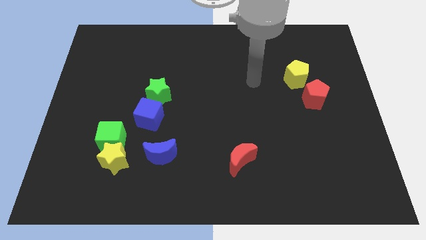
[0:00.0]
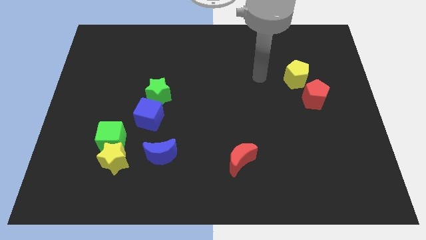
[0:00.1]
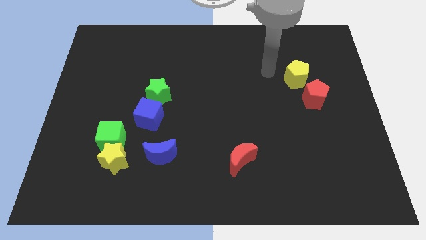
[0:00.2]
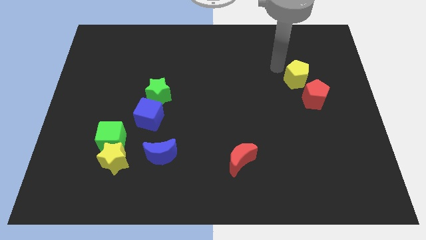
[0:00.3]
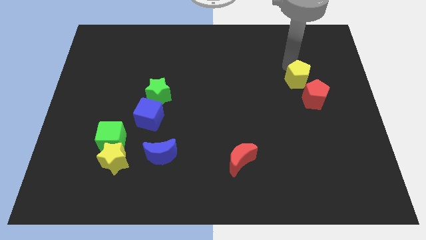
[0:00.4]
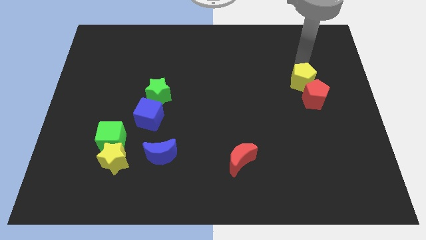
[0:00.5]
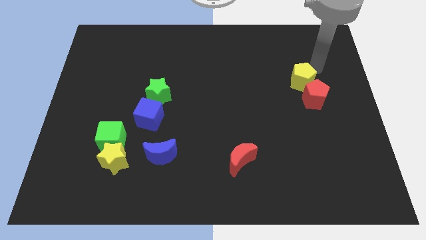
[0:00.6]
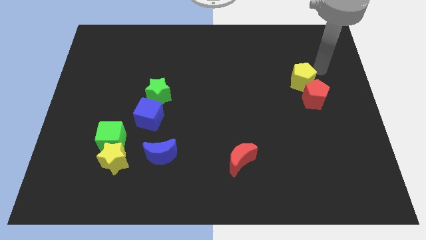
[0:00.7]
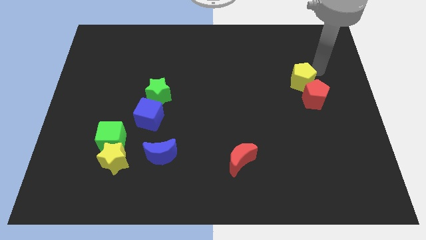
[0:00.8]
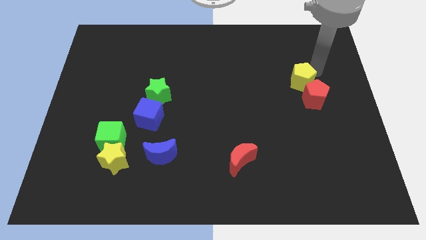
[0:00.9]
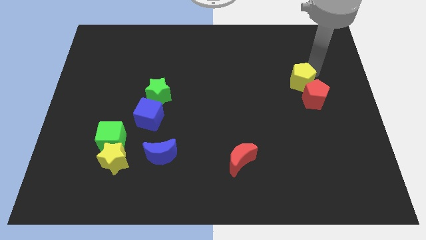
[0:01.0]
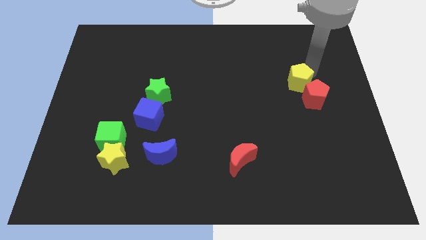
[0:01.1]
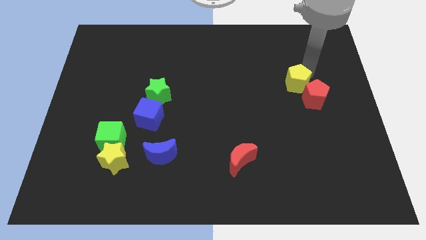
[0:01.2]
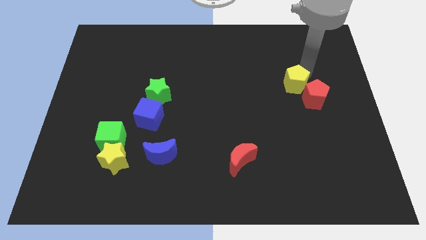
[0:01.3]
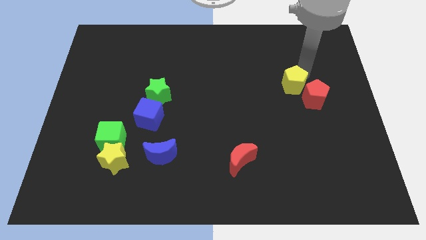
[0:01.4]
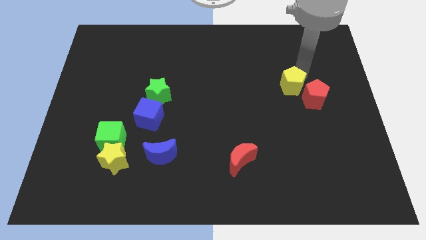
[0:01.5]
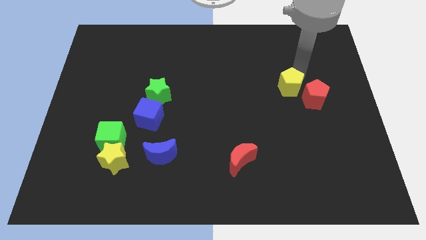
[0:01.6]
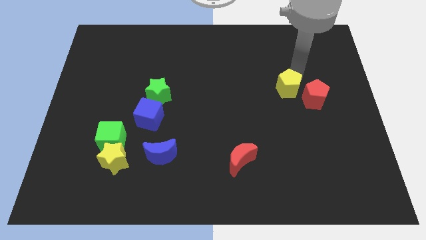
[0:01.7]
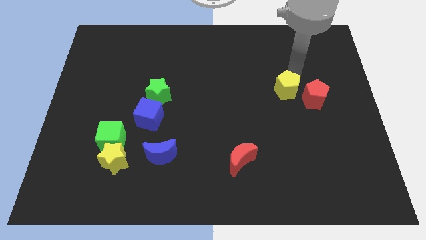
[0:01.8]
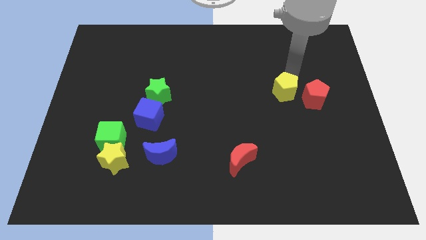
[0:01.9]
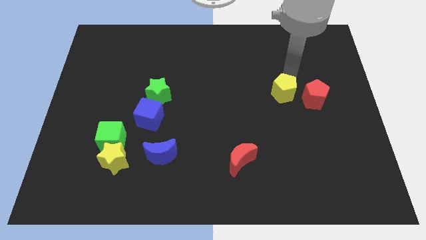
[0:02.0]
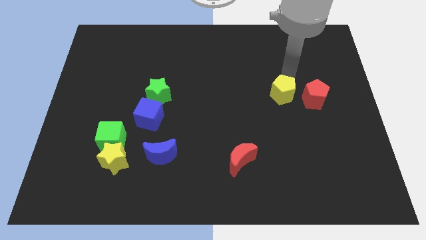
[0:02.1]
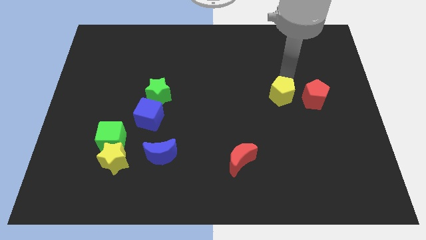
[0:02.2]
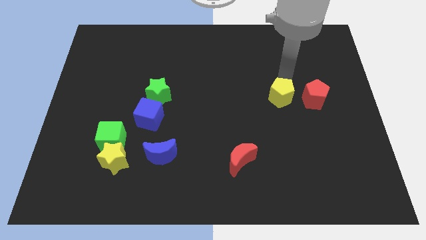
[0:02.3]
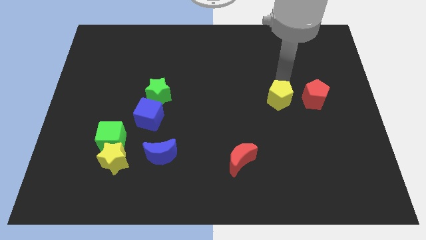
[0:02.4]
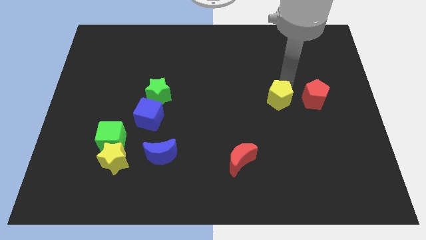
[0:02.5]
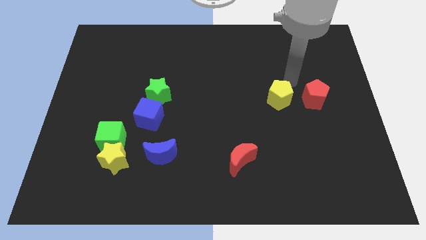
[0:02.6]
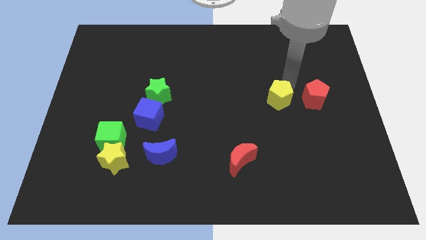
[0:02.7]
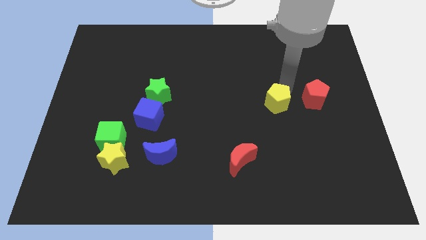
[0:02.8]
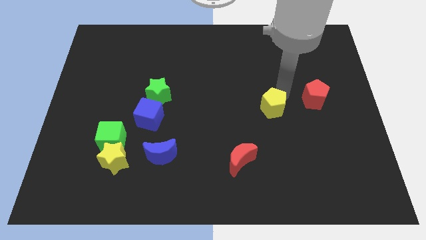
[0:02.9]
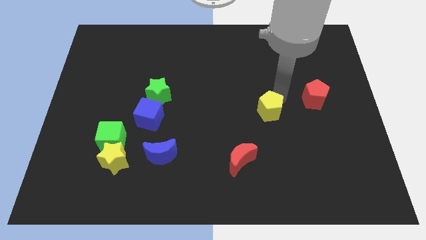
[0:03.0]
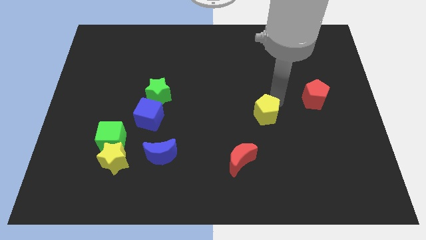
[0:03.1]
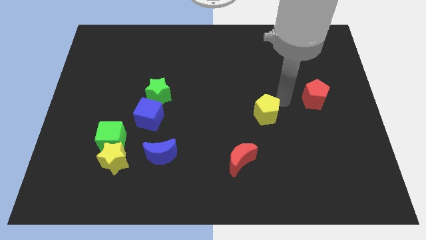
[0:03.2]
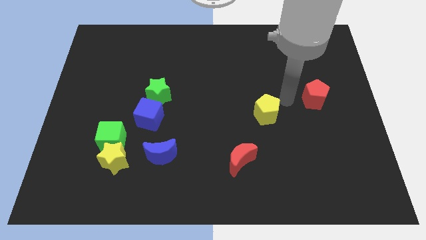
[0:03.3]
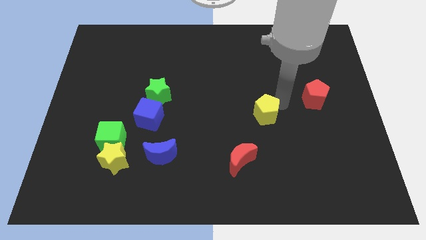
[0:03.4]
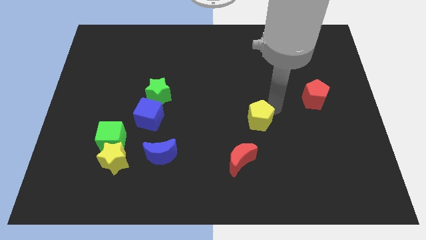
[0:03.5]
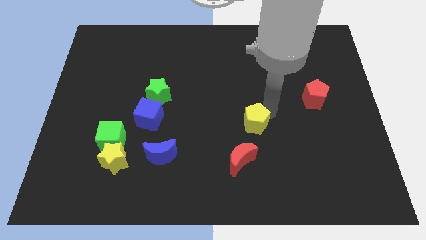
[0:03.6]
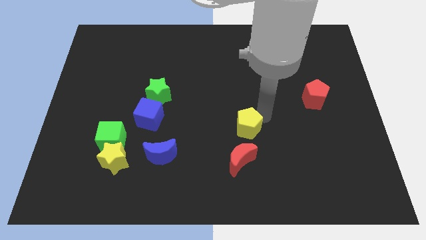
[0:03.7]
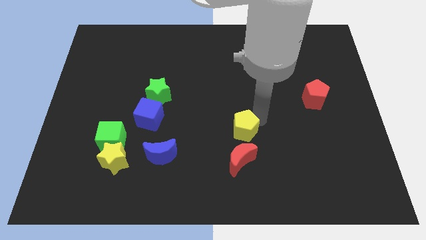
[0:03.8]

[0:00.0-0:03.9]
move the yellow pentagon down and then left

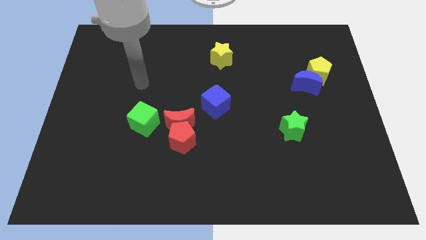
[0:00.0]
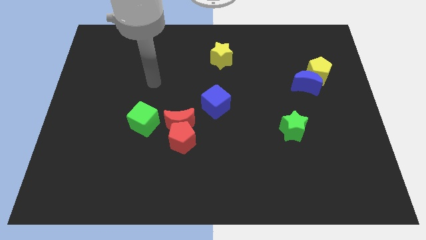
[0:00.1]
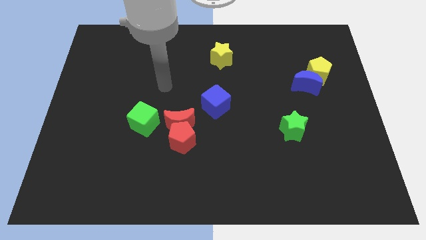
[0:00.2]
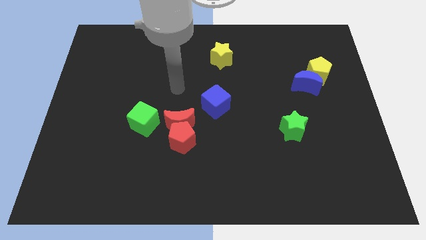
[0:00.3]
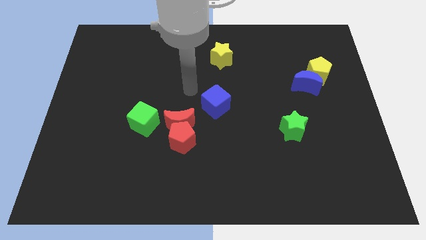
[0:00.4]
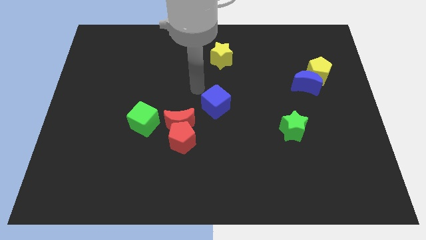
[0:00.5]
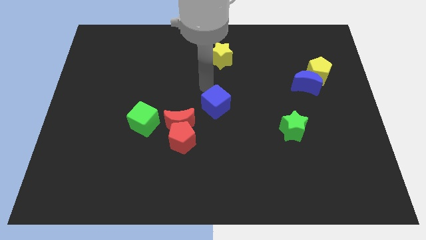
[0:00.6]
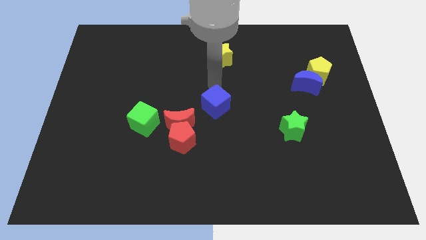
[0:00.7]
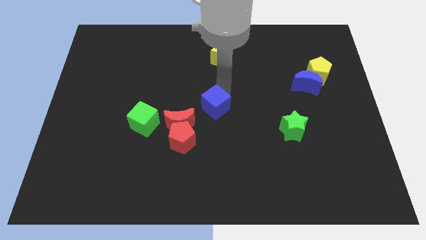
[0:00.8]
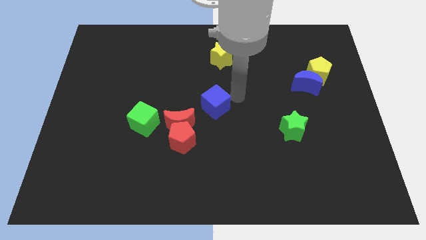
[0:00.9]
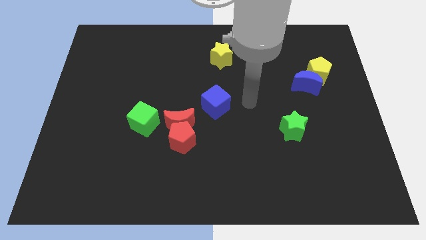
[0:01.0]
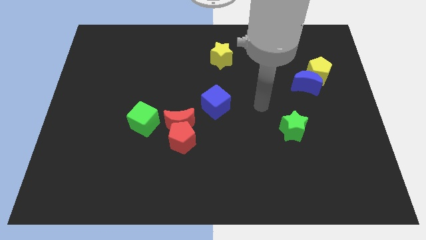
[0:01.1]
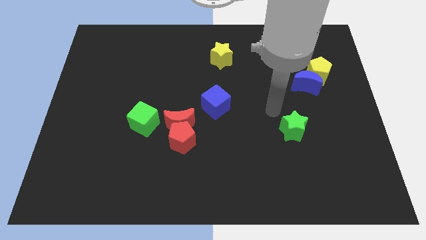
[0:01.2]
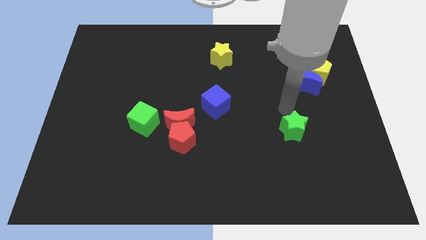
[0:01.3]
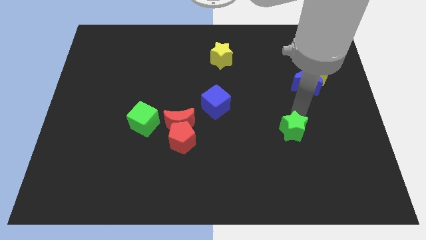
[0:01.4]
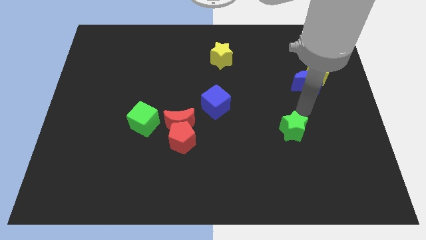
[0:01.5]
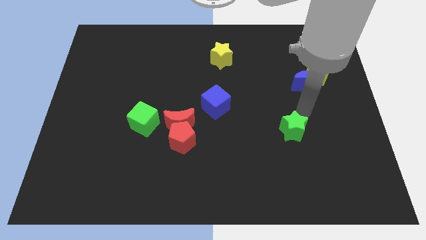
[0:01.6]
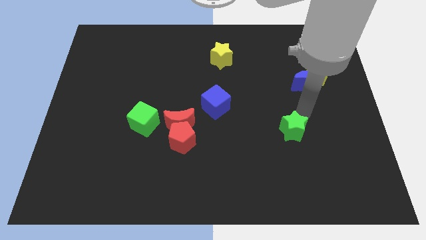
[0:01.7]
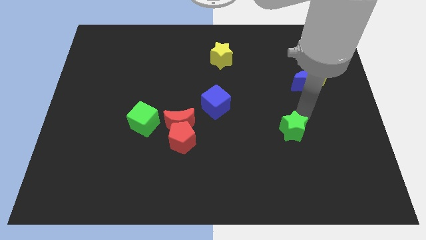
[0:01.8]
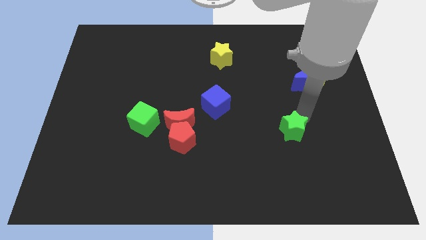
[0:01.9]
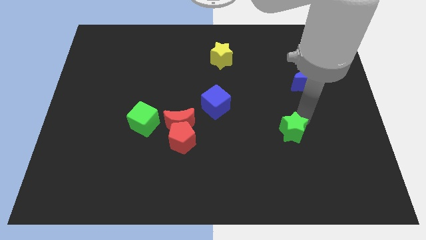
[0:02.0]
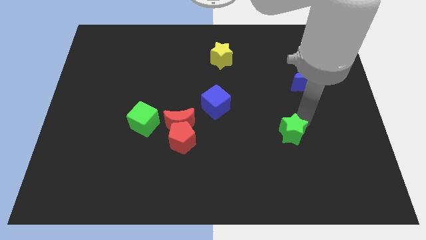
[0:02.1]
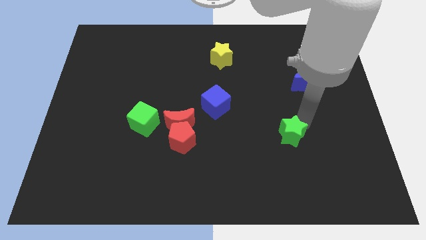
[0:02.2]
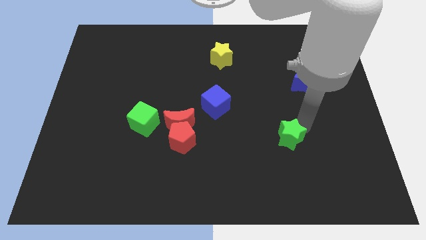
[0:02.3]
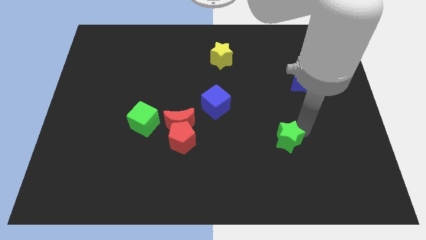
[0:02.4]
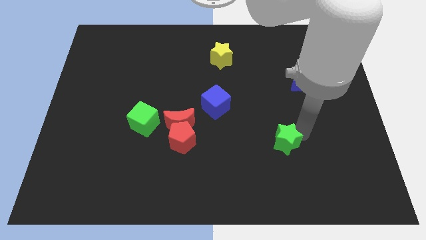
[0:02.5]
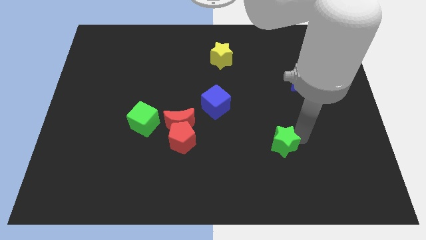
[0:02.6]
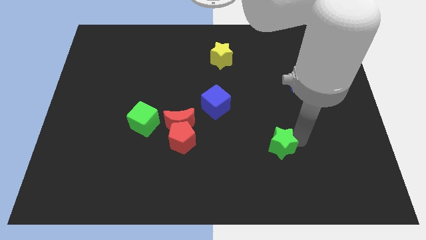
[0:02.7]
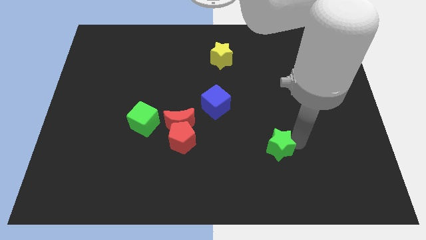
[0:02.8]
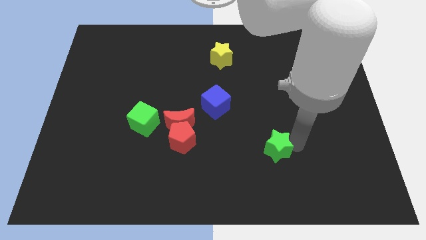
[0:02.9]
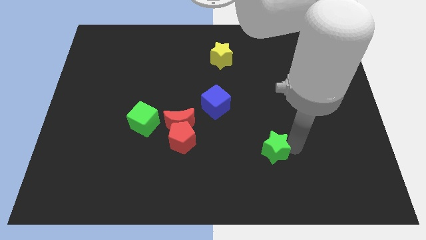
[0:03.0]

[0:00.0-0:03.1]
move the green star downwards and then left a little bit

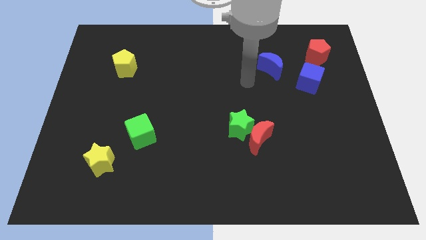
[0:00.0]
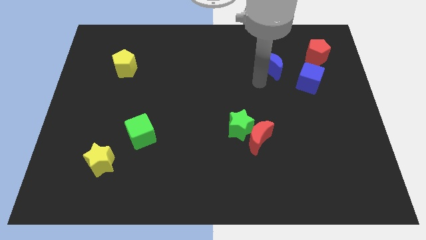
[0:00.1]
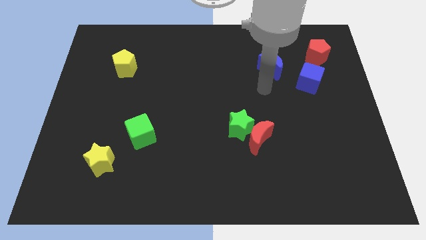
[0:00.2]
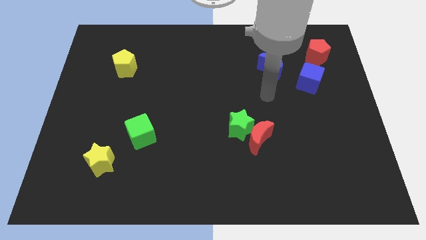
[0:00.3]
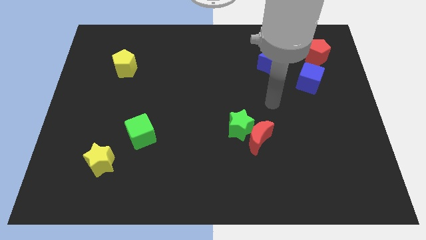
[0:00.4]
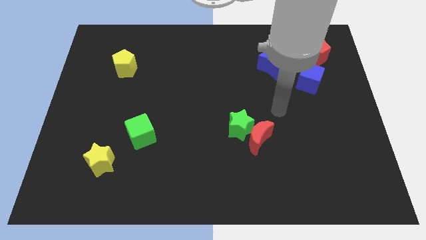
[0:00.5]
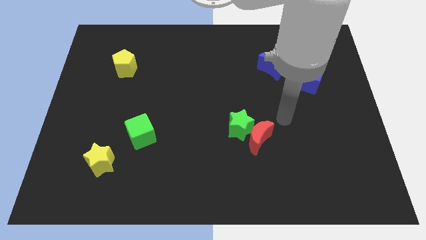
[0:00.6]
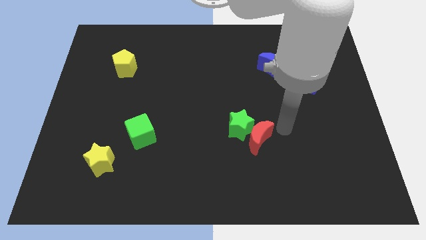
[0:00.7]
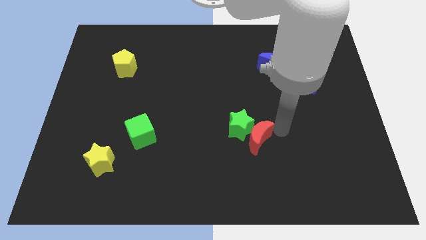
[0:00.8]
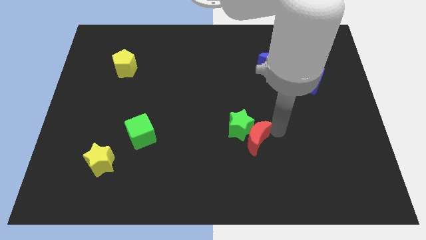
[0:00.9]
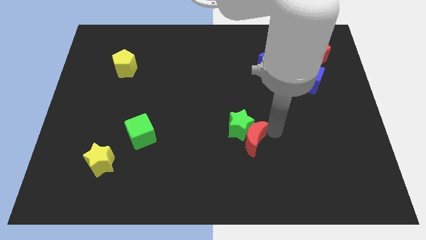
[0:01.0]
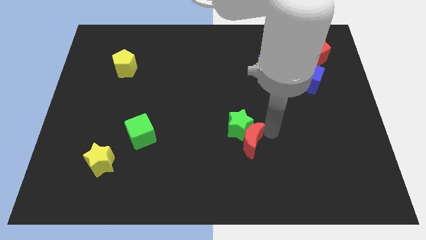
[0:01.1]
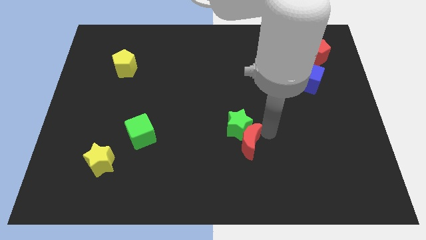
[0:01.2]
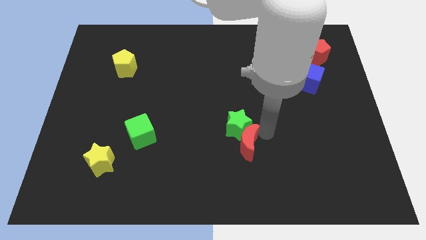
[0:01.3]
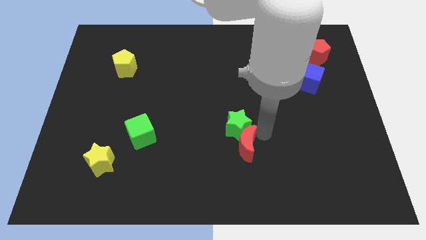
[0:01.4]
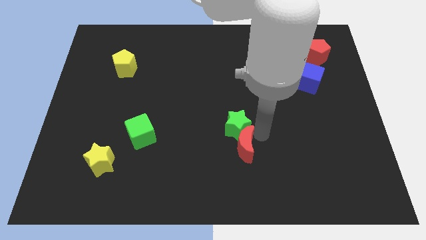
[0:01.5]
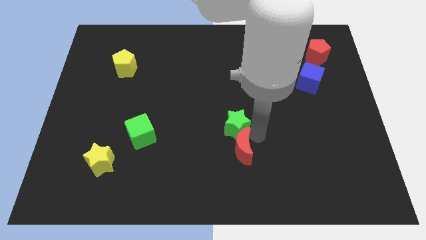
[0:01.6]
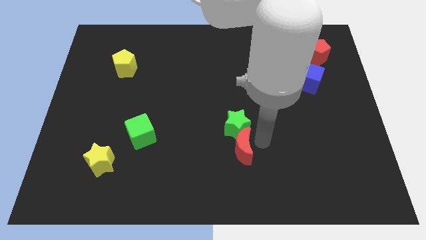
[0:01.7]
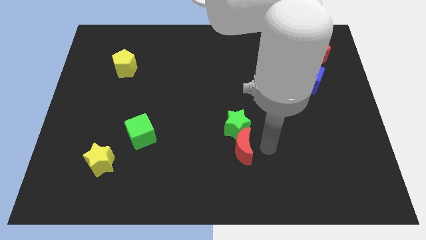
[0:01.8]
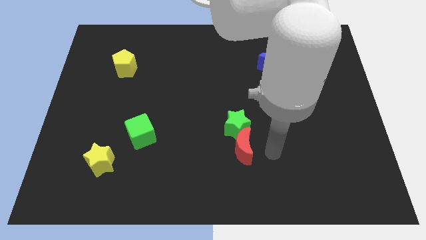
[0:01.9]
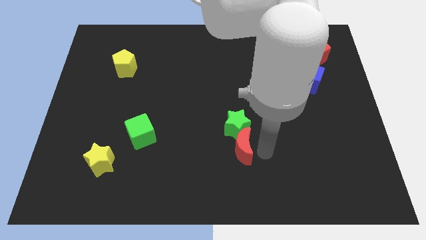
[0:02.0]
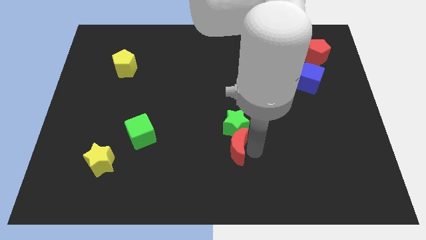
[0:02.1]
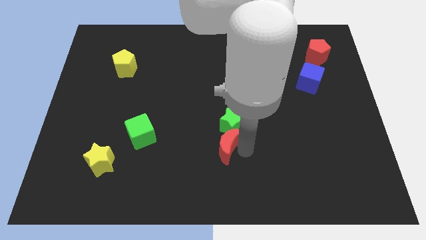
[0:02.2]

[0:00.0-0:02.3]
slightly slide the red moon left
